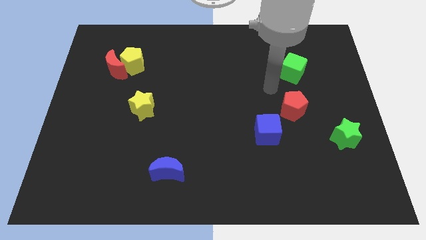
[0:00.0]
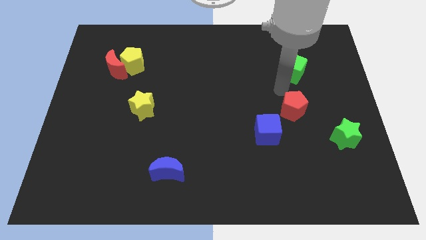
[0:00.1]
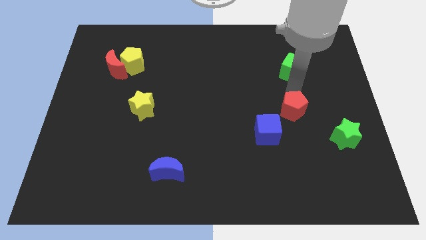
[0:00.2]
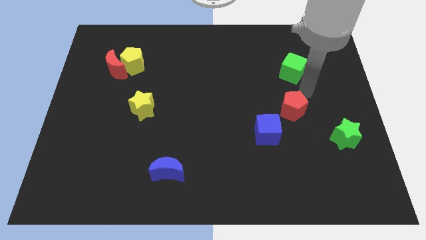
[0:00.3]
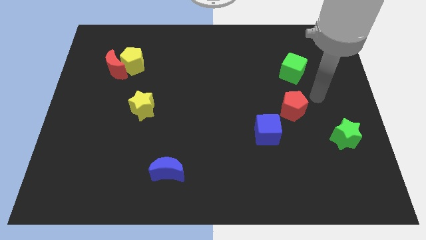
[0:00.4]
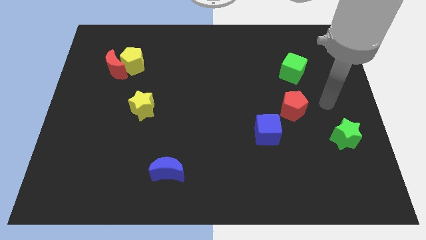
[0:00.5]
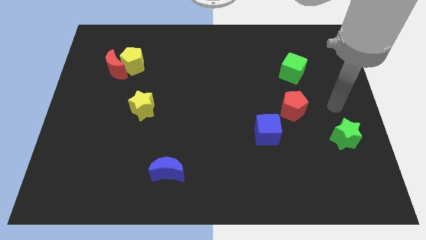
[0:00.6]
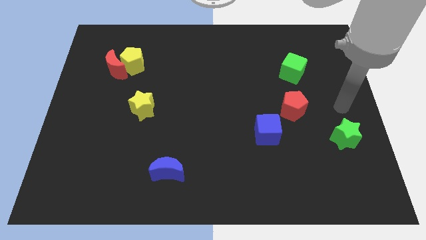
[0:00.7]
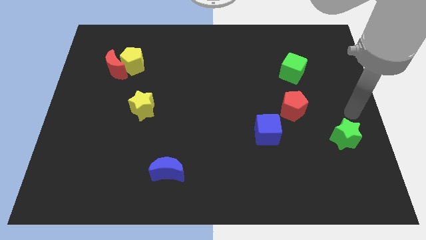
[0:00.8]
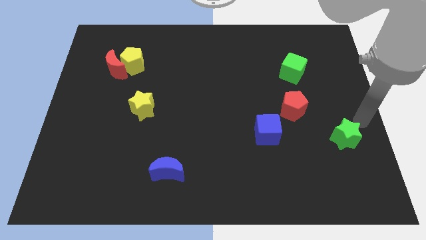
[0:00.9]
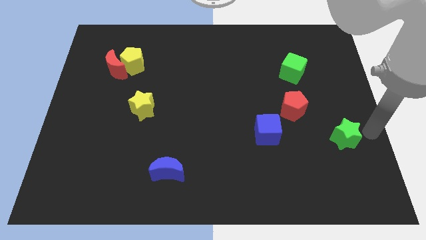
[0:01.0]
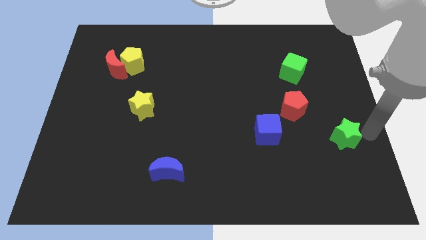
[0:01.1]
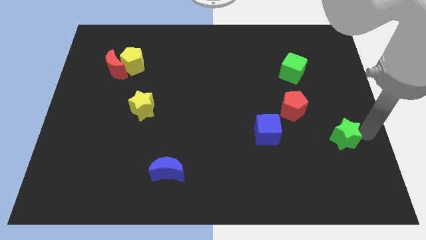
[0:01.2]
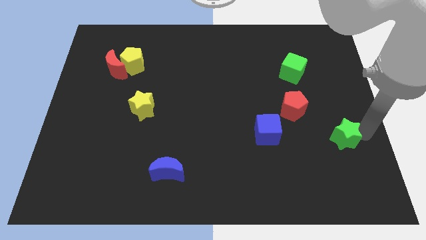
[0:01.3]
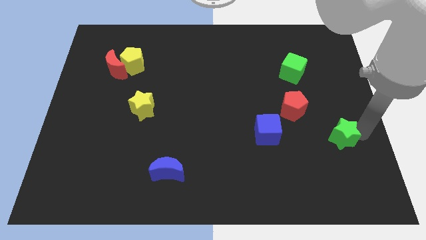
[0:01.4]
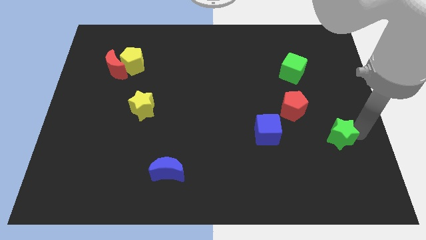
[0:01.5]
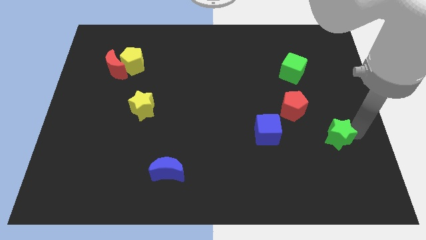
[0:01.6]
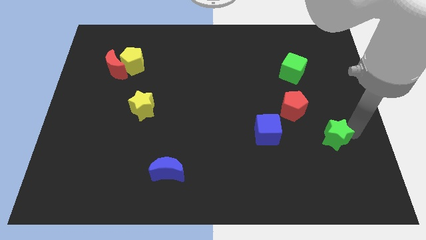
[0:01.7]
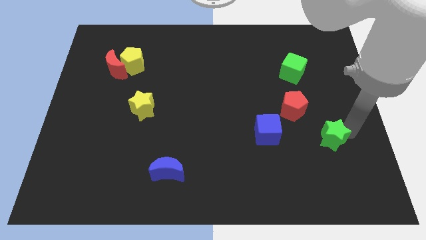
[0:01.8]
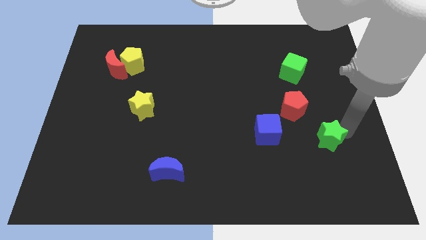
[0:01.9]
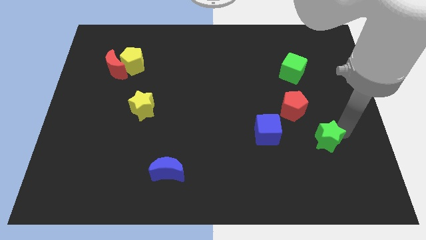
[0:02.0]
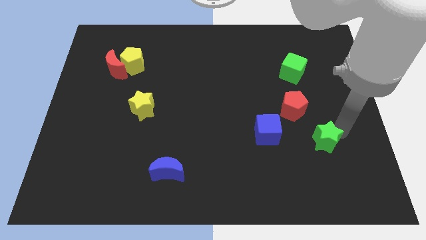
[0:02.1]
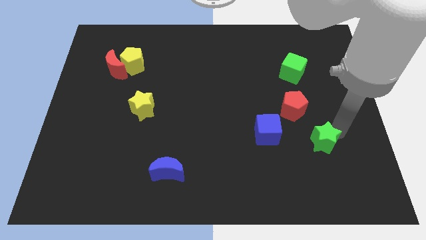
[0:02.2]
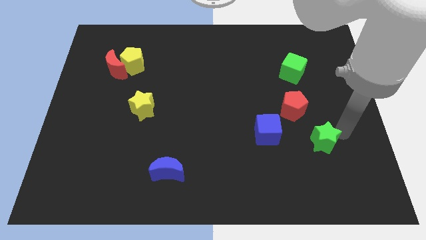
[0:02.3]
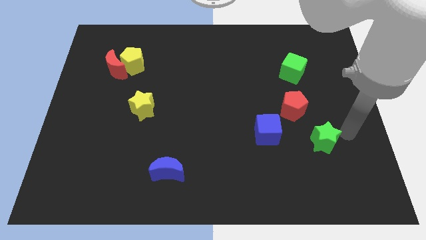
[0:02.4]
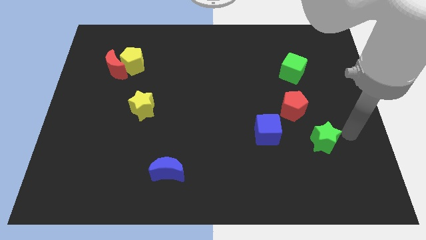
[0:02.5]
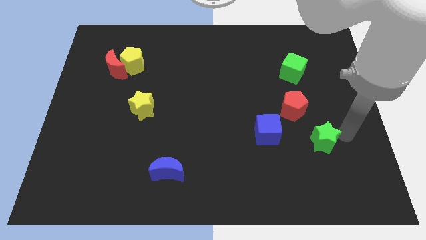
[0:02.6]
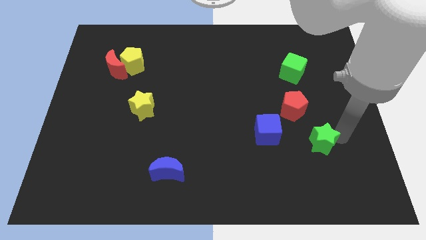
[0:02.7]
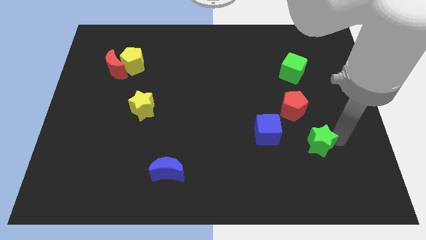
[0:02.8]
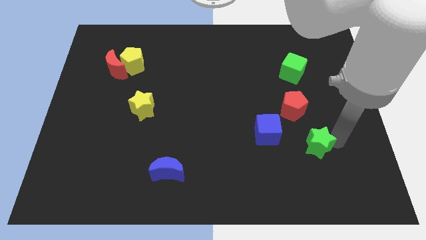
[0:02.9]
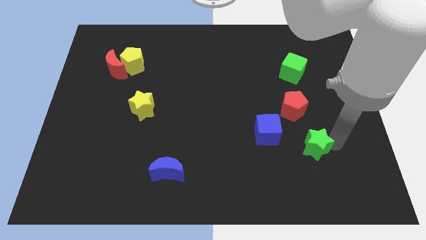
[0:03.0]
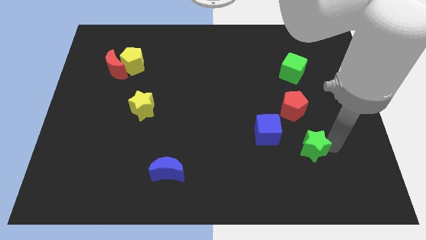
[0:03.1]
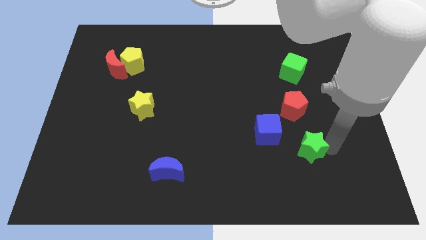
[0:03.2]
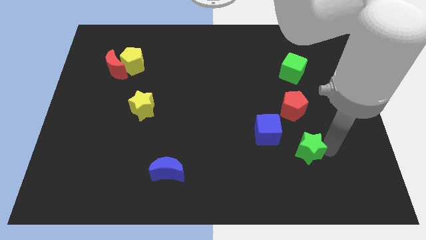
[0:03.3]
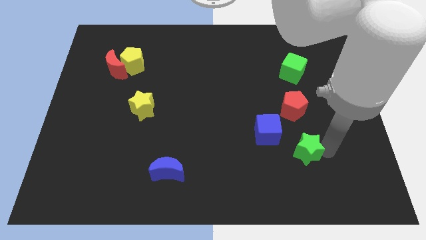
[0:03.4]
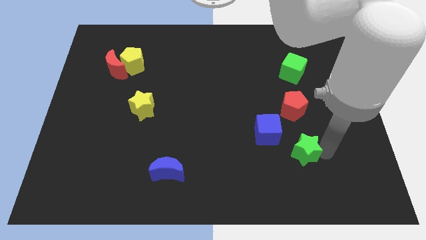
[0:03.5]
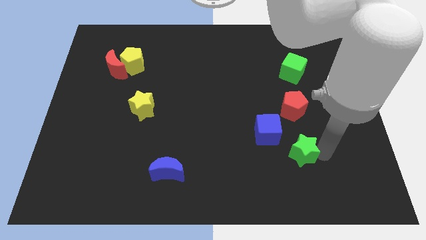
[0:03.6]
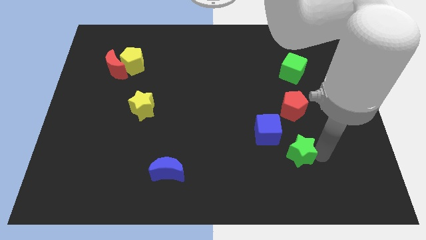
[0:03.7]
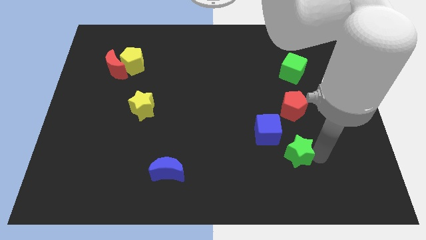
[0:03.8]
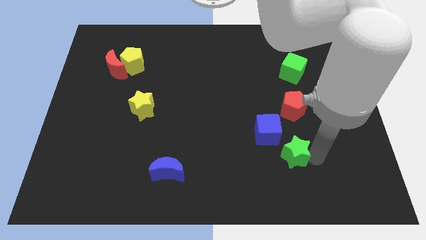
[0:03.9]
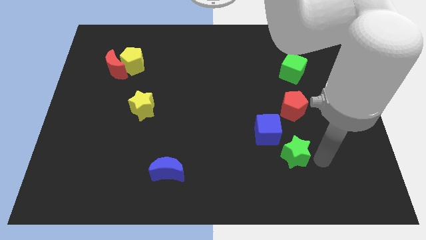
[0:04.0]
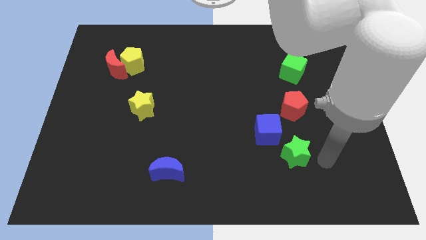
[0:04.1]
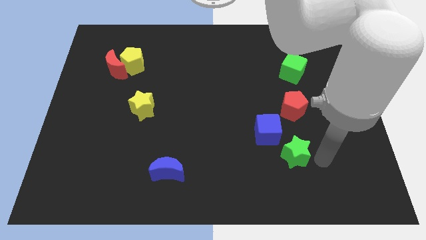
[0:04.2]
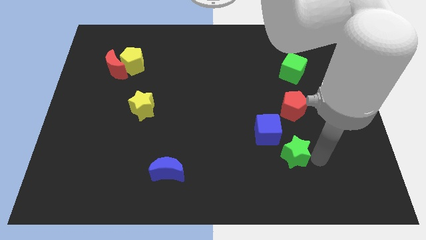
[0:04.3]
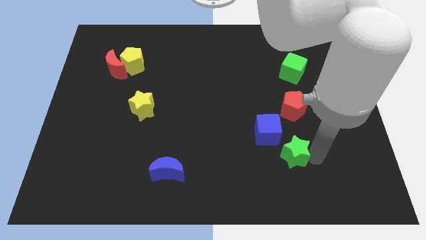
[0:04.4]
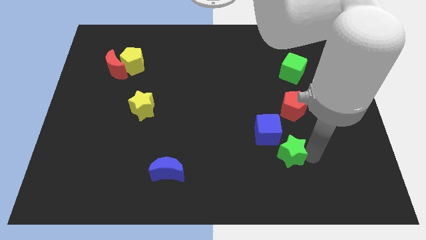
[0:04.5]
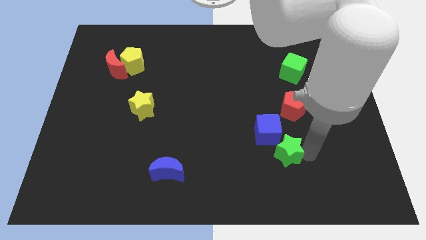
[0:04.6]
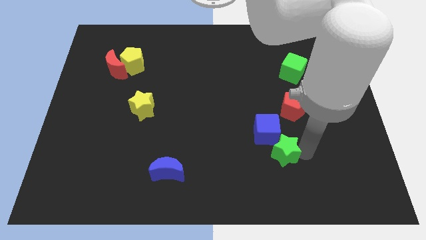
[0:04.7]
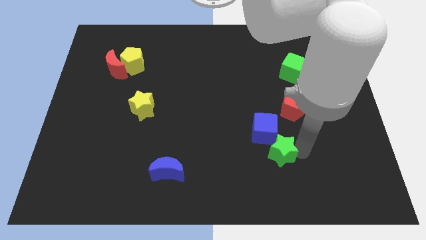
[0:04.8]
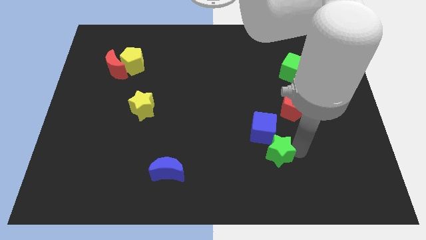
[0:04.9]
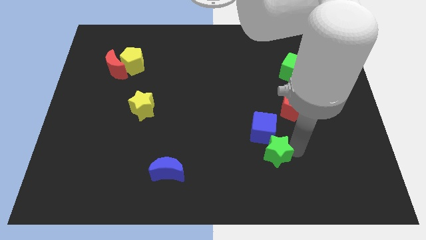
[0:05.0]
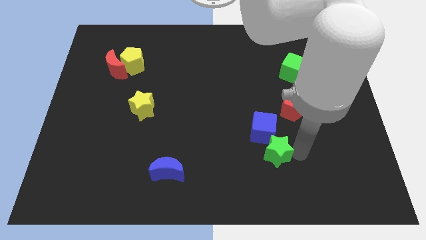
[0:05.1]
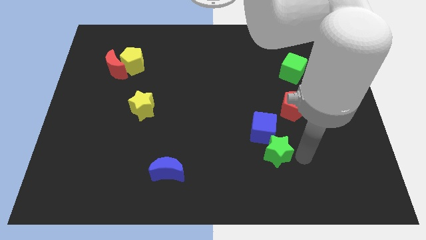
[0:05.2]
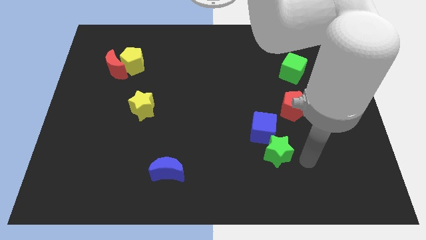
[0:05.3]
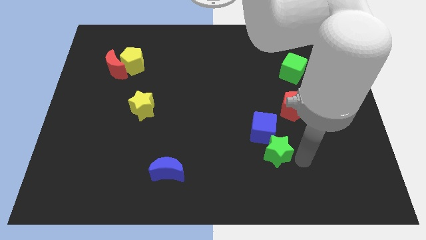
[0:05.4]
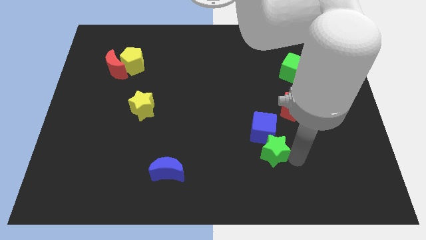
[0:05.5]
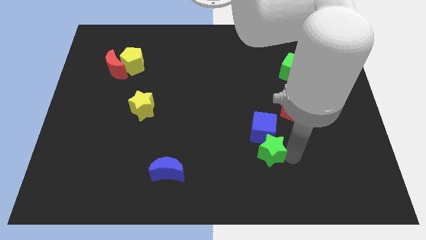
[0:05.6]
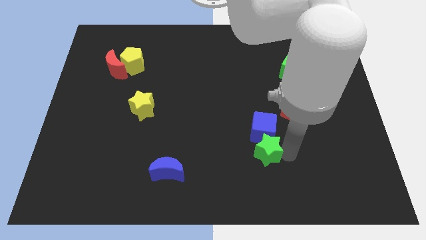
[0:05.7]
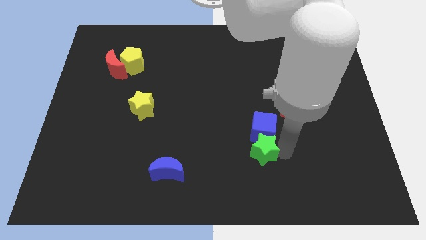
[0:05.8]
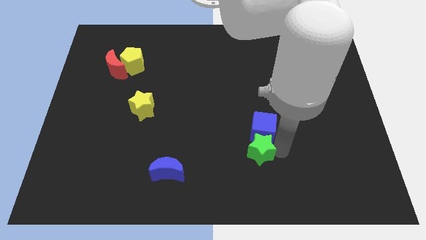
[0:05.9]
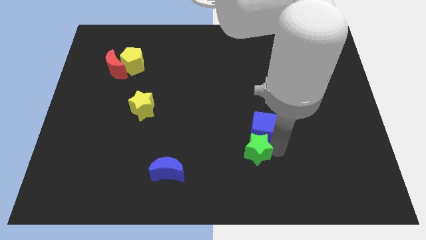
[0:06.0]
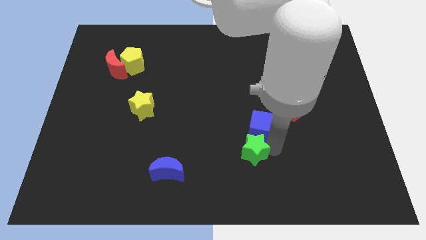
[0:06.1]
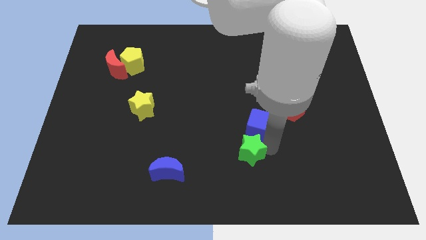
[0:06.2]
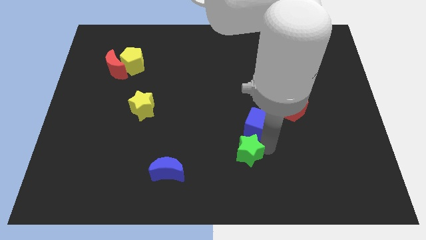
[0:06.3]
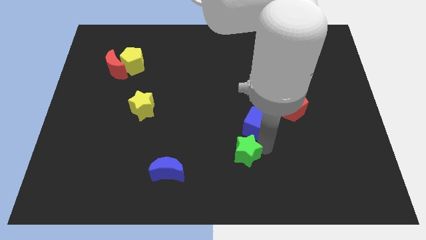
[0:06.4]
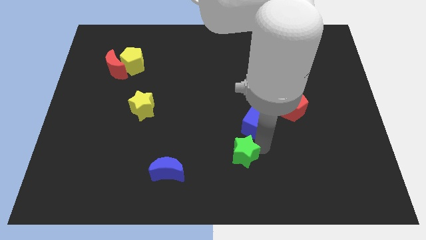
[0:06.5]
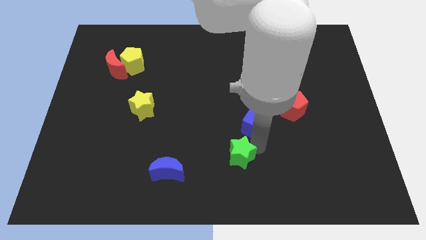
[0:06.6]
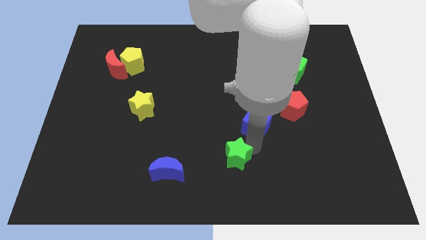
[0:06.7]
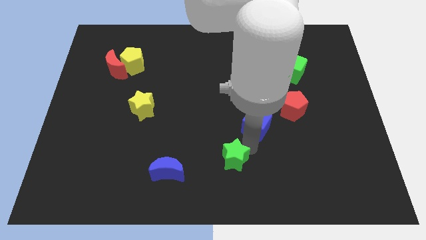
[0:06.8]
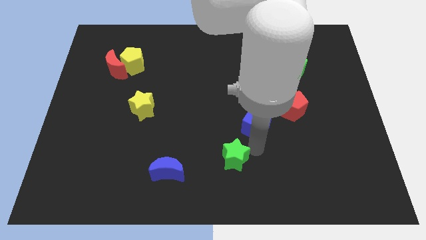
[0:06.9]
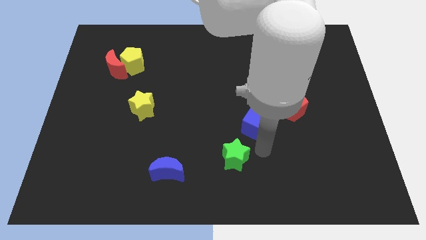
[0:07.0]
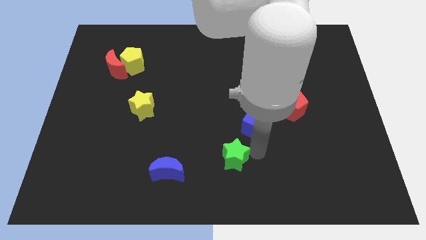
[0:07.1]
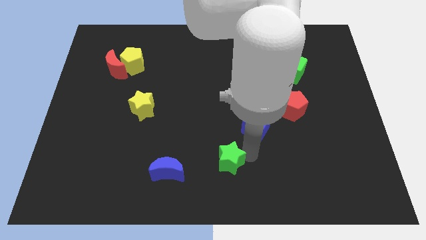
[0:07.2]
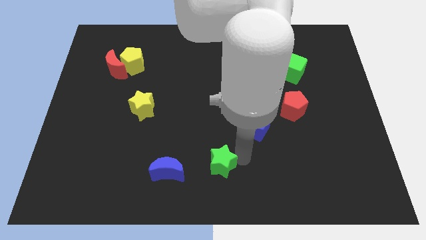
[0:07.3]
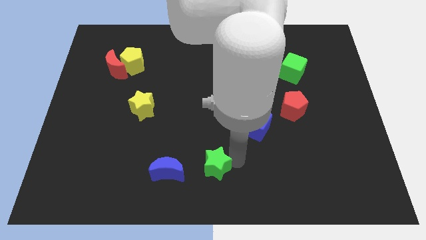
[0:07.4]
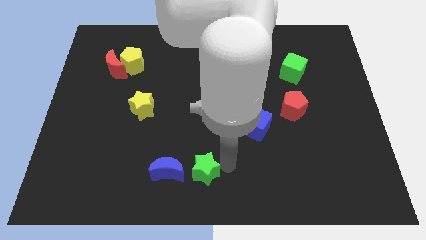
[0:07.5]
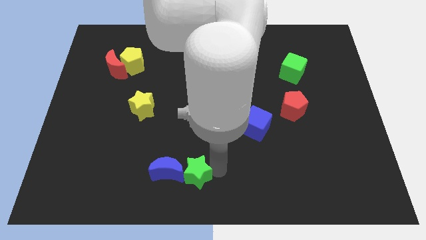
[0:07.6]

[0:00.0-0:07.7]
slide the green star next to the blue moon
